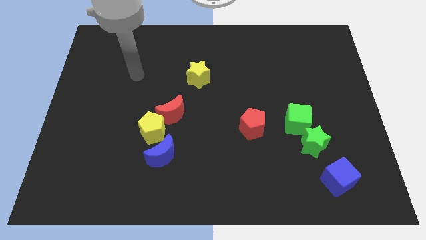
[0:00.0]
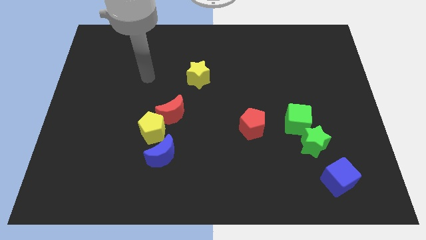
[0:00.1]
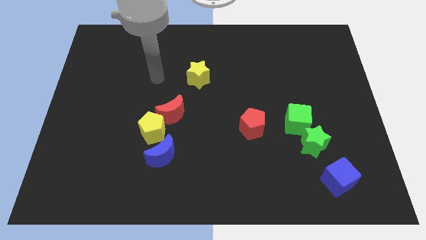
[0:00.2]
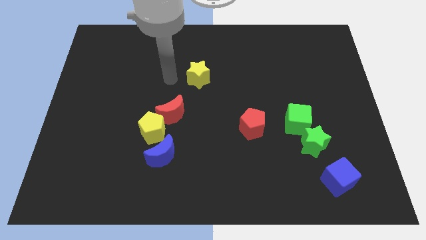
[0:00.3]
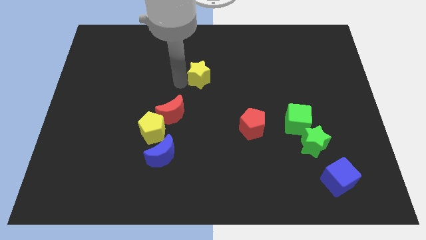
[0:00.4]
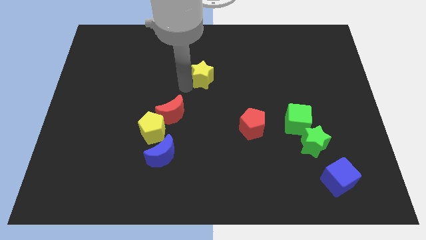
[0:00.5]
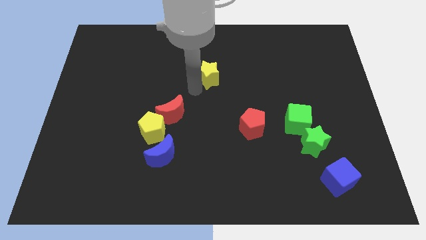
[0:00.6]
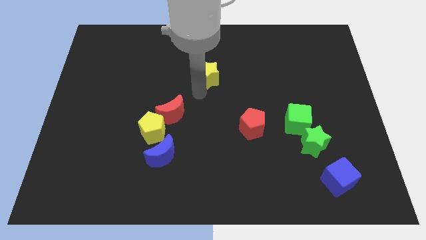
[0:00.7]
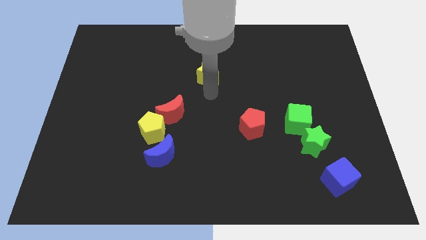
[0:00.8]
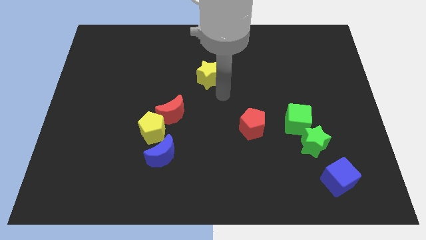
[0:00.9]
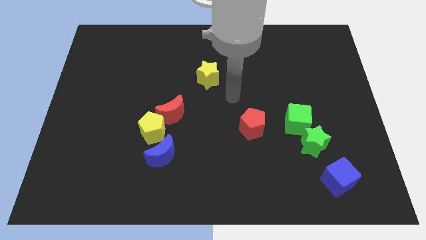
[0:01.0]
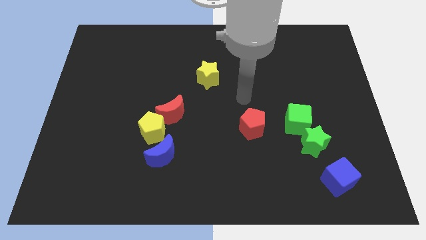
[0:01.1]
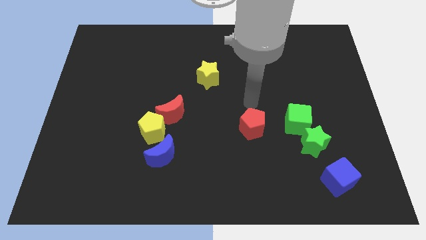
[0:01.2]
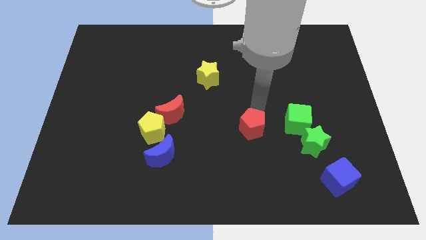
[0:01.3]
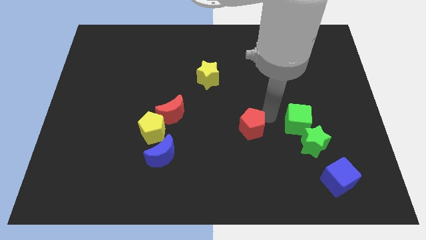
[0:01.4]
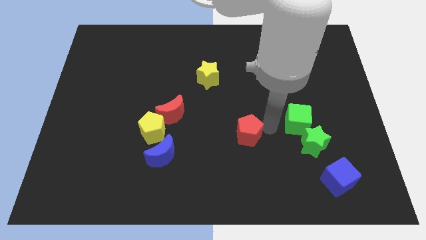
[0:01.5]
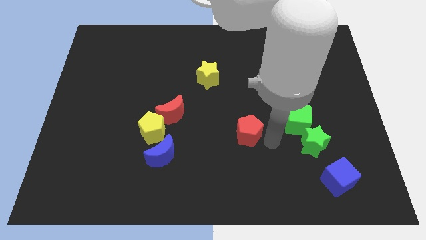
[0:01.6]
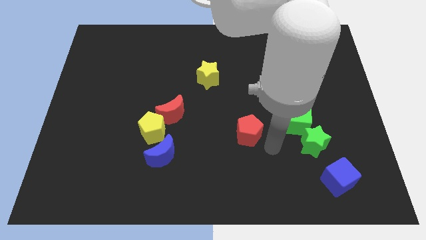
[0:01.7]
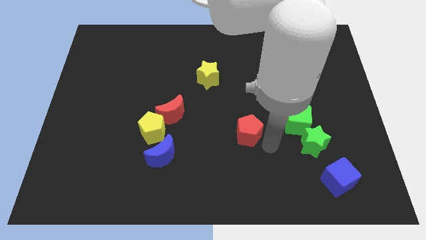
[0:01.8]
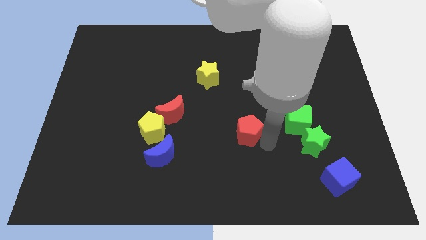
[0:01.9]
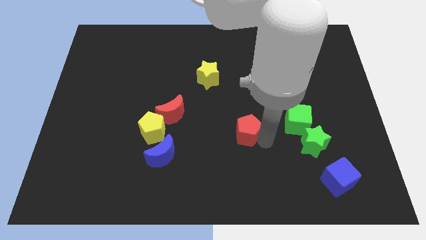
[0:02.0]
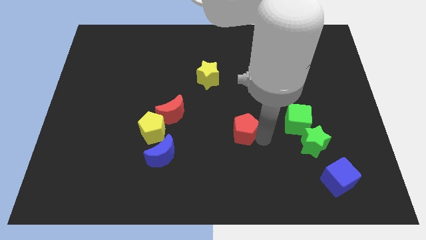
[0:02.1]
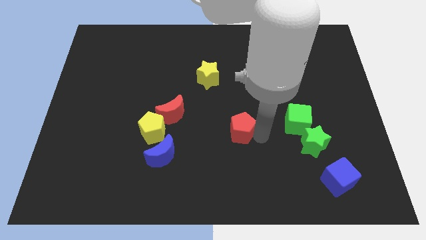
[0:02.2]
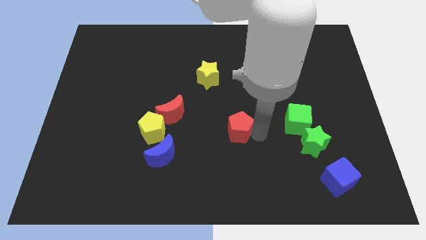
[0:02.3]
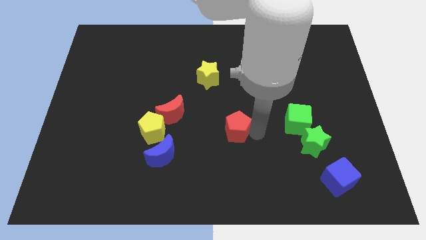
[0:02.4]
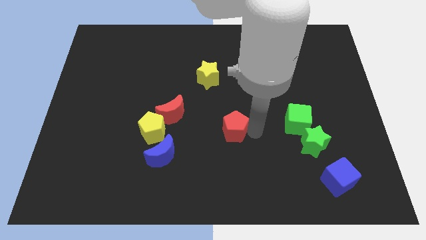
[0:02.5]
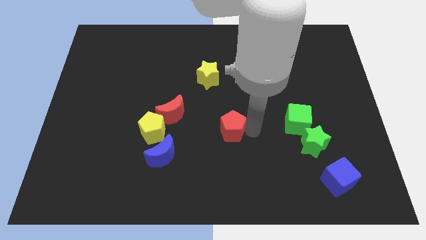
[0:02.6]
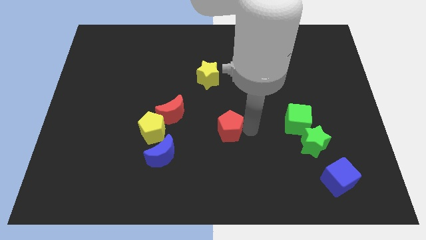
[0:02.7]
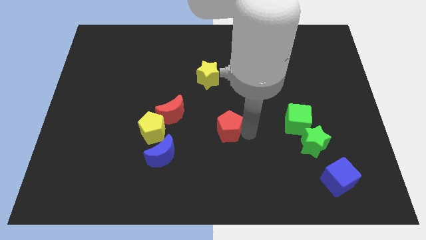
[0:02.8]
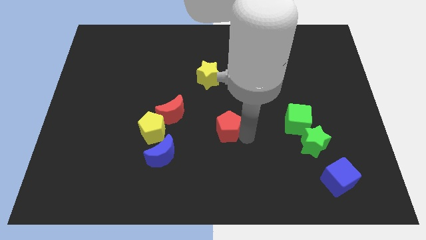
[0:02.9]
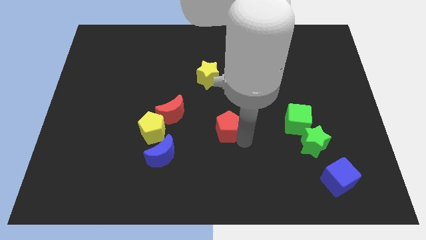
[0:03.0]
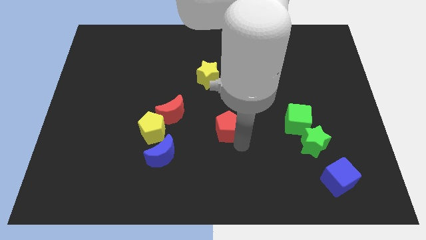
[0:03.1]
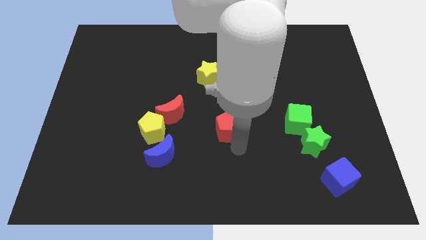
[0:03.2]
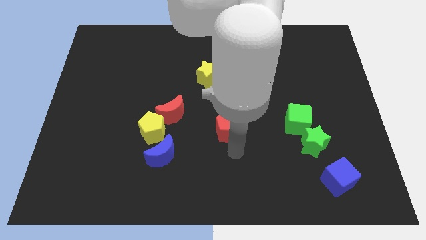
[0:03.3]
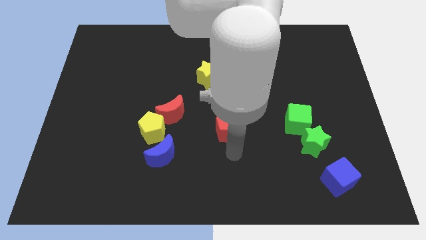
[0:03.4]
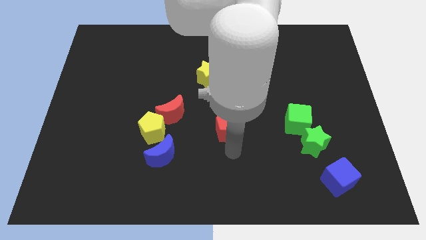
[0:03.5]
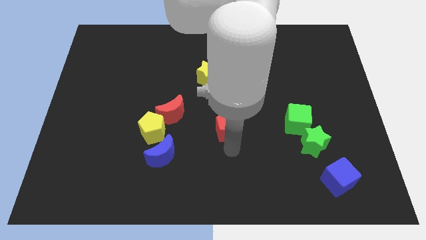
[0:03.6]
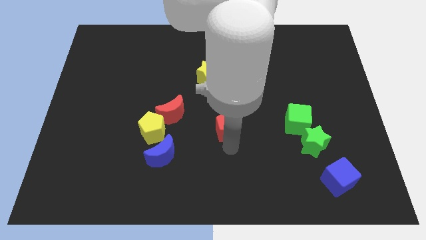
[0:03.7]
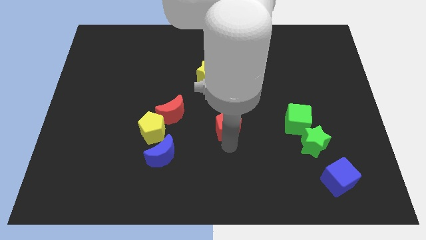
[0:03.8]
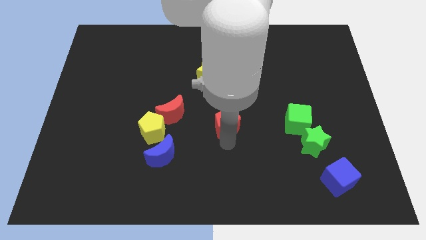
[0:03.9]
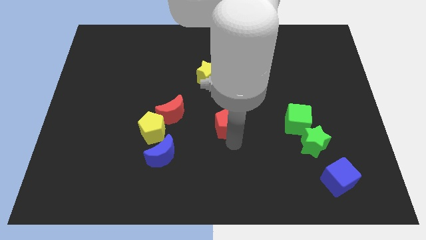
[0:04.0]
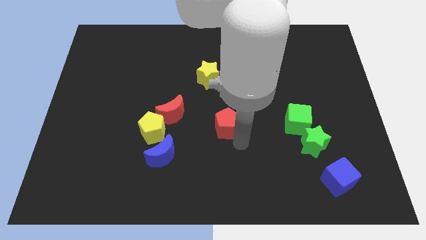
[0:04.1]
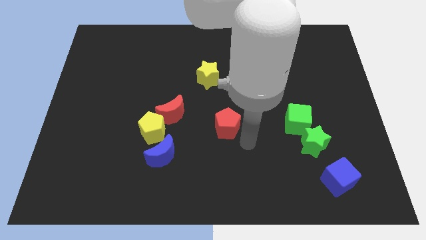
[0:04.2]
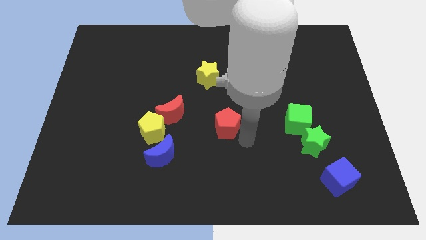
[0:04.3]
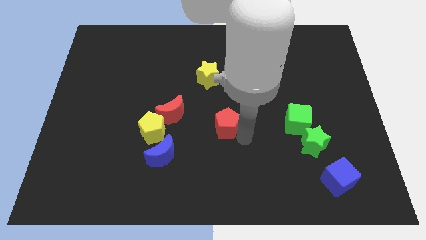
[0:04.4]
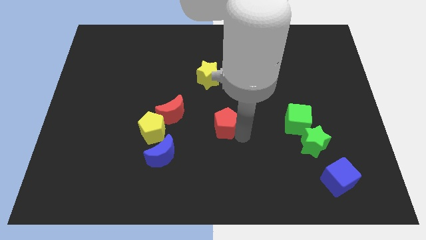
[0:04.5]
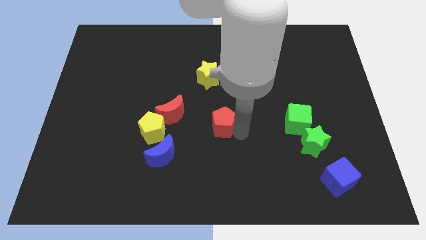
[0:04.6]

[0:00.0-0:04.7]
put the red pentagon to the bottom of the yellow star

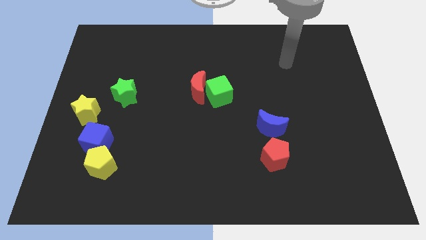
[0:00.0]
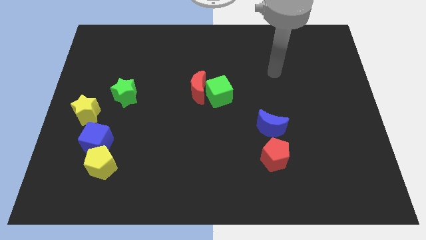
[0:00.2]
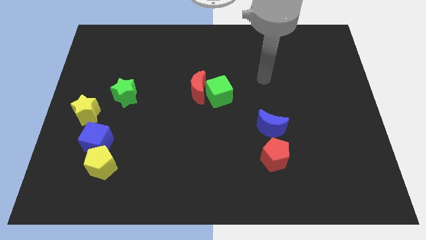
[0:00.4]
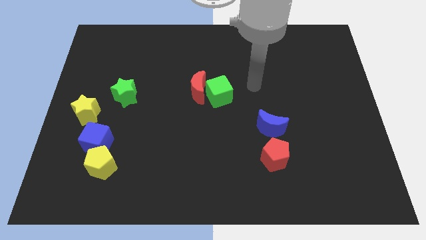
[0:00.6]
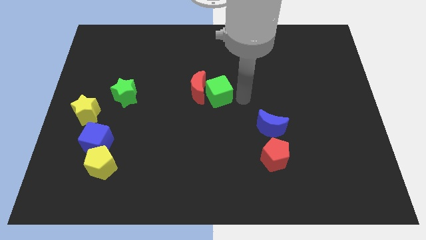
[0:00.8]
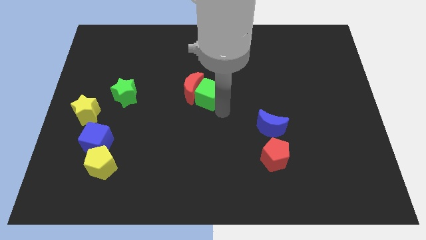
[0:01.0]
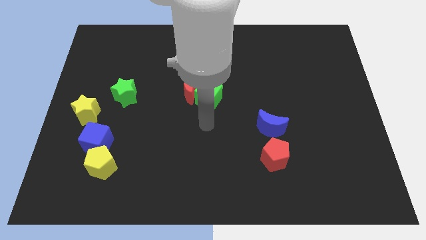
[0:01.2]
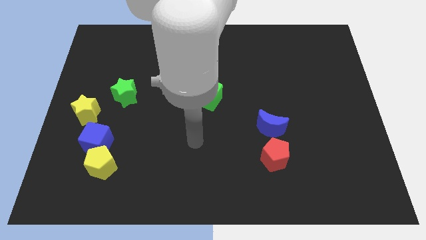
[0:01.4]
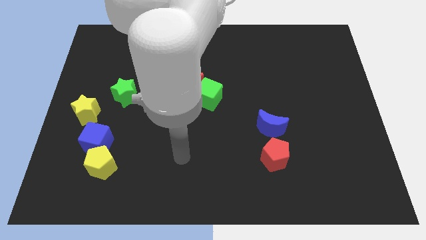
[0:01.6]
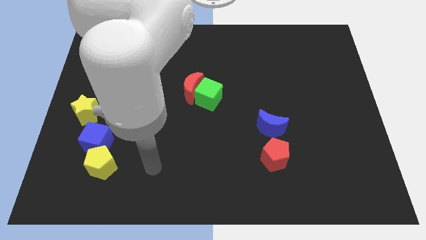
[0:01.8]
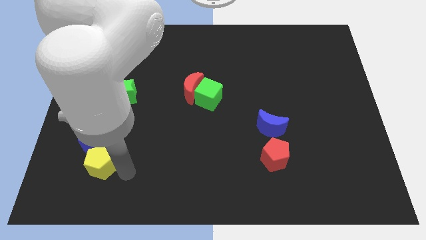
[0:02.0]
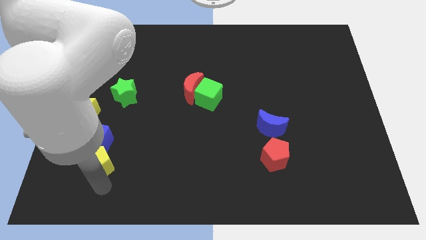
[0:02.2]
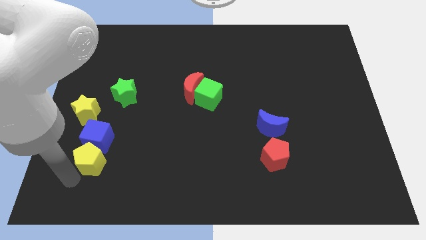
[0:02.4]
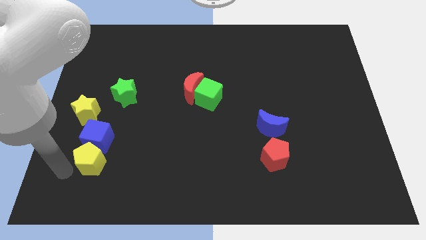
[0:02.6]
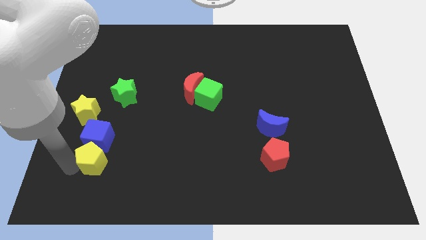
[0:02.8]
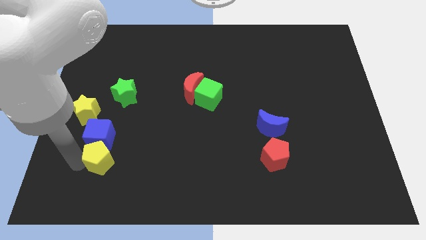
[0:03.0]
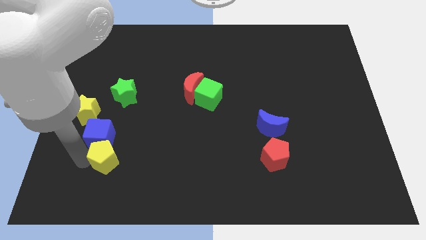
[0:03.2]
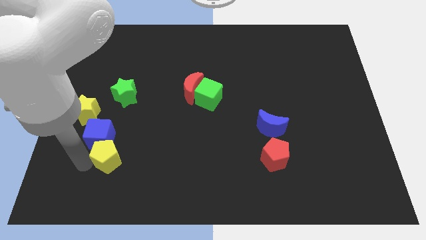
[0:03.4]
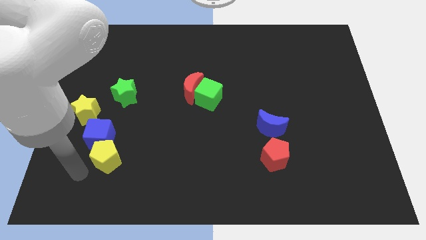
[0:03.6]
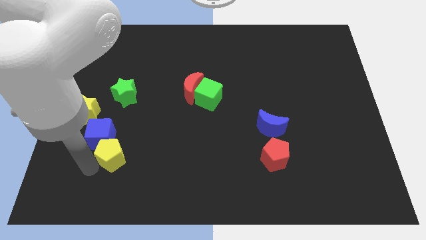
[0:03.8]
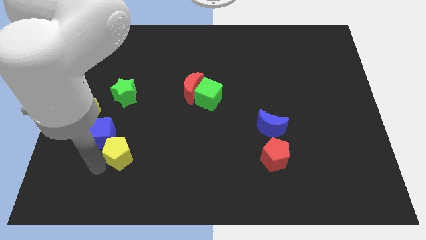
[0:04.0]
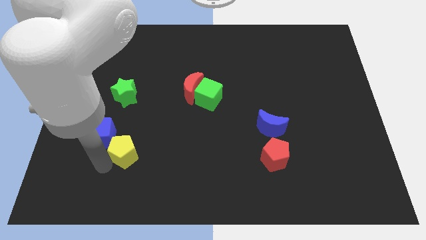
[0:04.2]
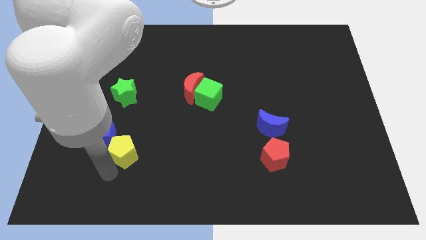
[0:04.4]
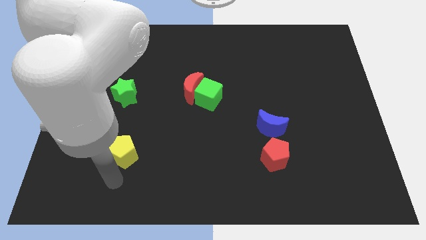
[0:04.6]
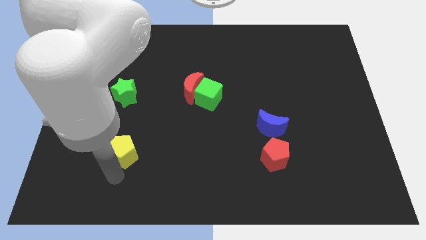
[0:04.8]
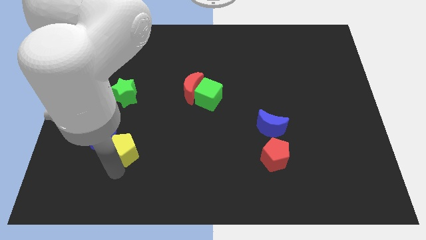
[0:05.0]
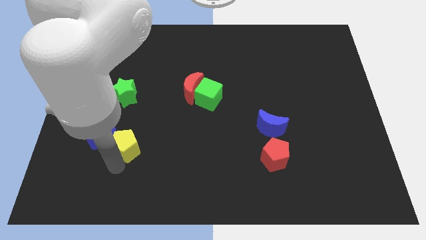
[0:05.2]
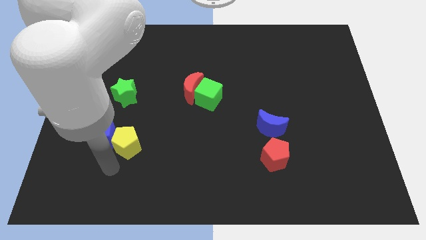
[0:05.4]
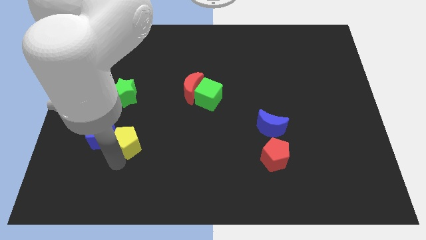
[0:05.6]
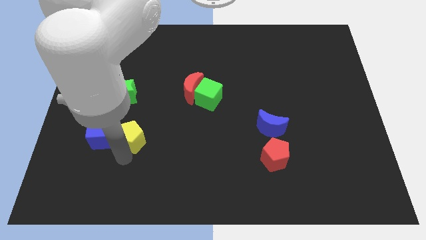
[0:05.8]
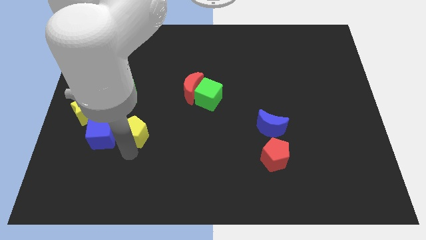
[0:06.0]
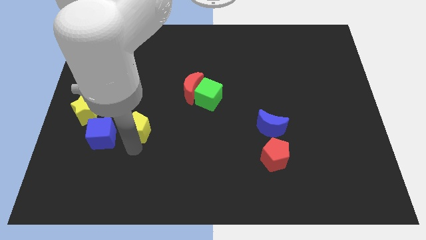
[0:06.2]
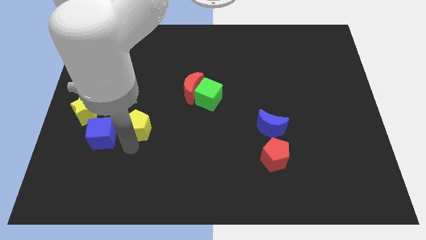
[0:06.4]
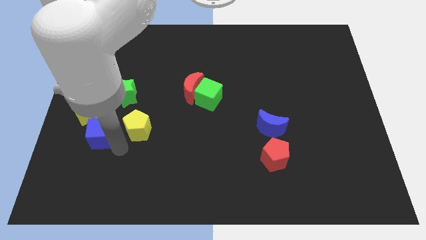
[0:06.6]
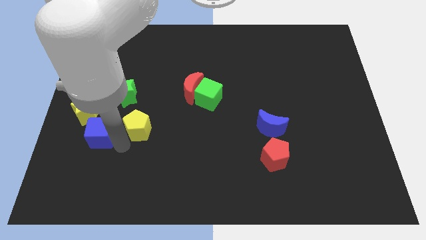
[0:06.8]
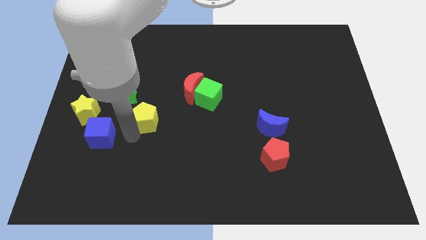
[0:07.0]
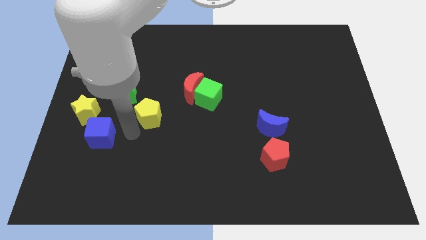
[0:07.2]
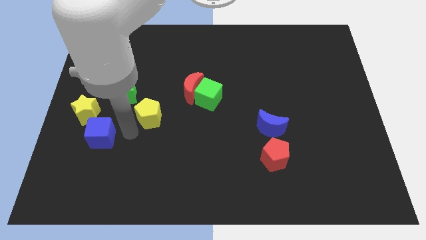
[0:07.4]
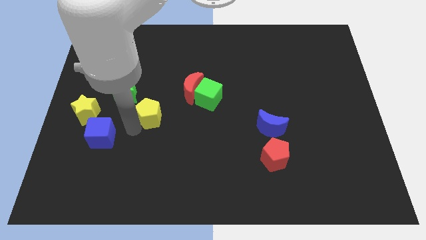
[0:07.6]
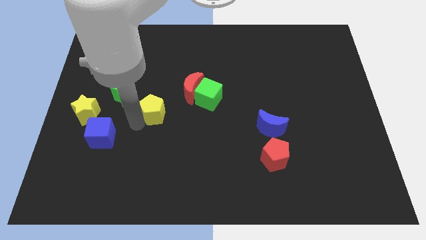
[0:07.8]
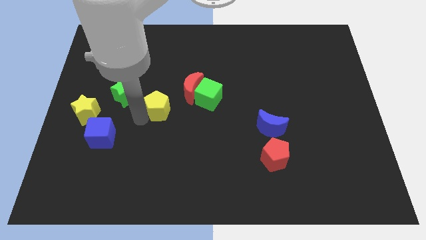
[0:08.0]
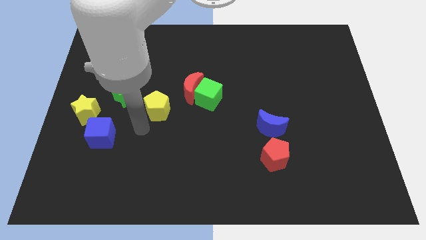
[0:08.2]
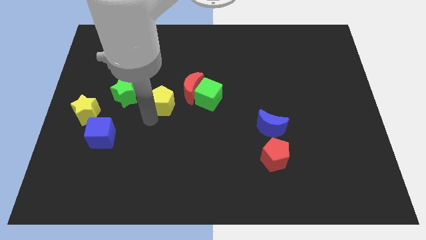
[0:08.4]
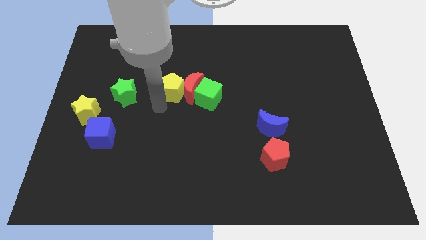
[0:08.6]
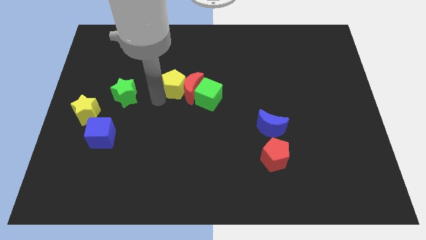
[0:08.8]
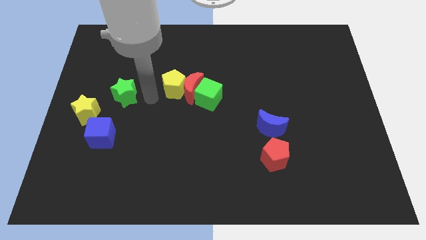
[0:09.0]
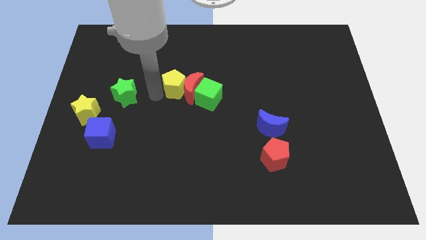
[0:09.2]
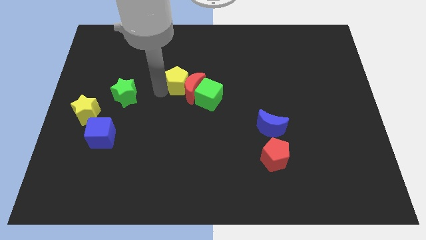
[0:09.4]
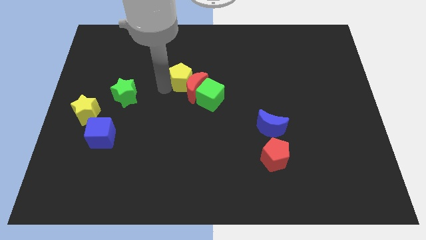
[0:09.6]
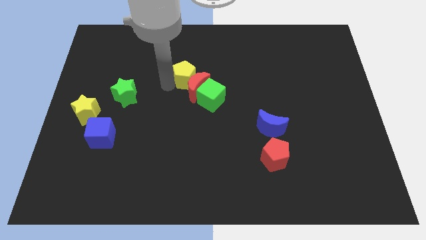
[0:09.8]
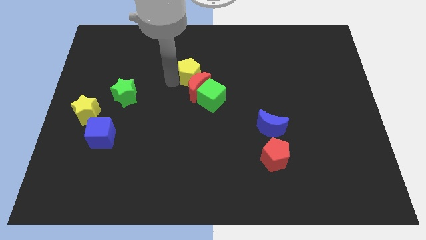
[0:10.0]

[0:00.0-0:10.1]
slide the yellow pentagon to the top right of the red moon
